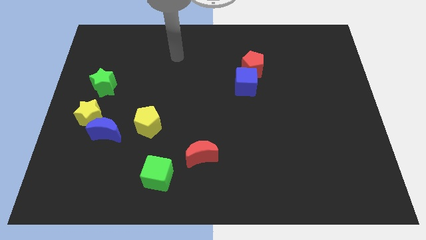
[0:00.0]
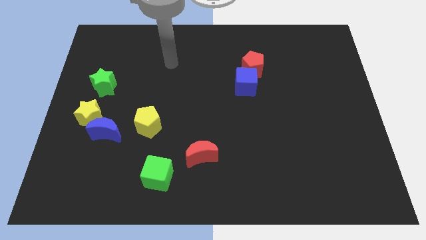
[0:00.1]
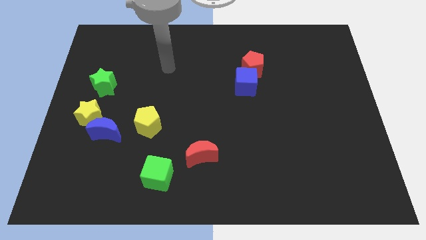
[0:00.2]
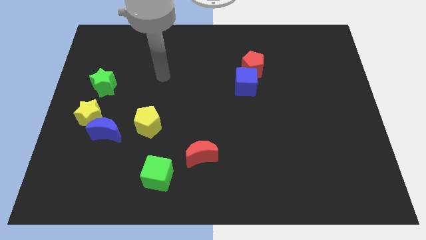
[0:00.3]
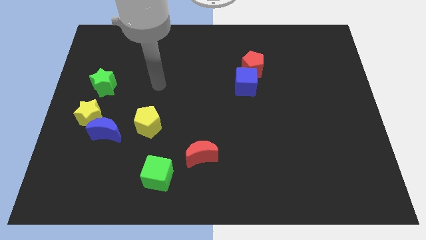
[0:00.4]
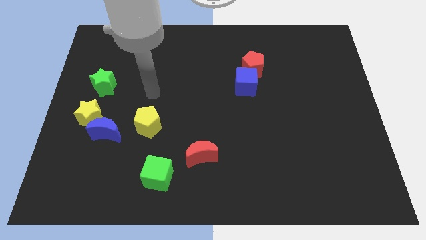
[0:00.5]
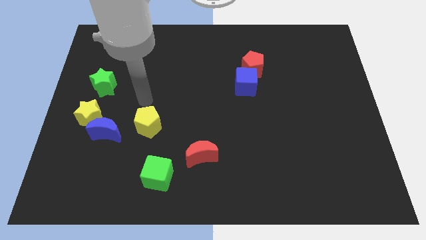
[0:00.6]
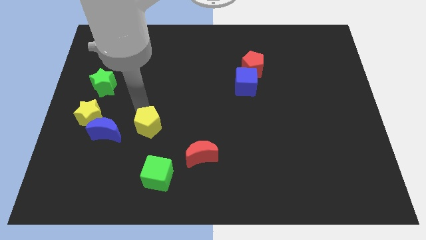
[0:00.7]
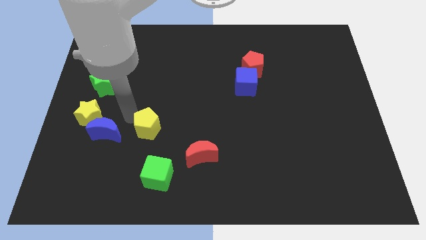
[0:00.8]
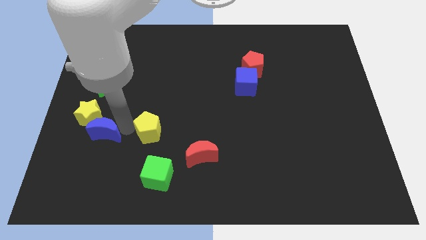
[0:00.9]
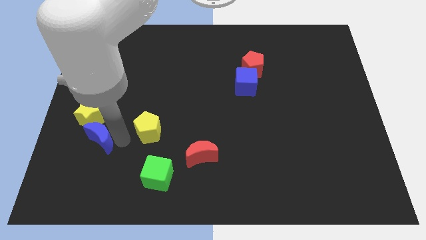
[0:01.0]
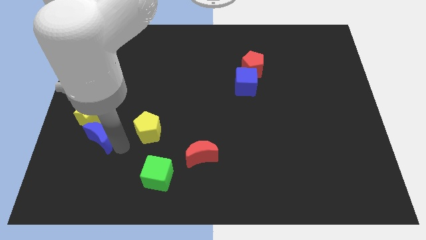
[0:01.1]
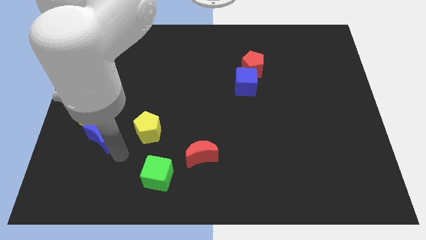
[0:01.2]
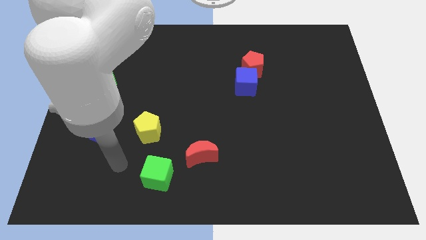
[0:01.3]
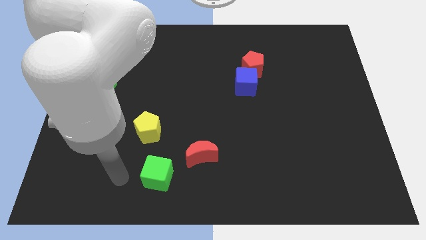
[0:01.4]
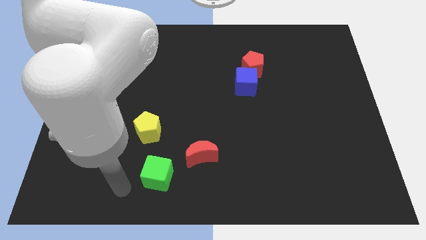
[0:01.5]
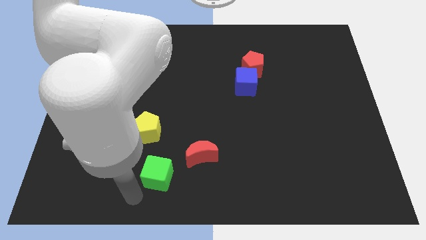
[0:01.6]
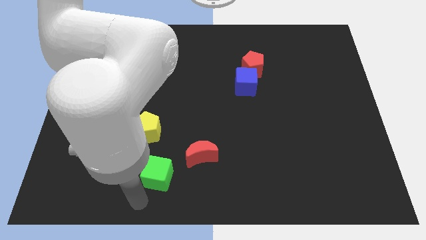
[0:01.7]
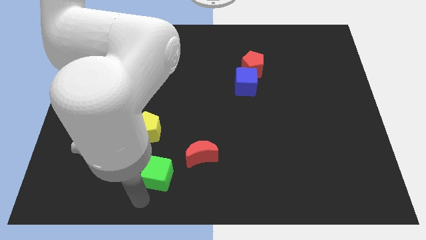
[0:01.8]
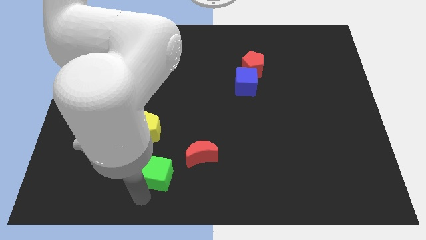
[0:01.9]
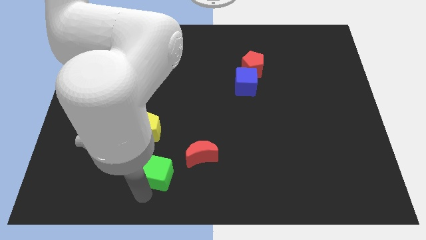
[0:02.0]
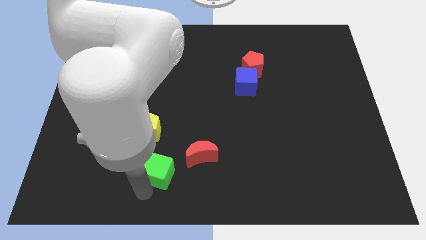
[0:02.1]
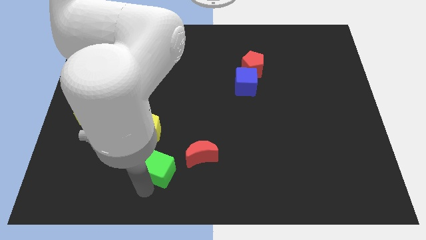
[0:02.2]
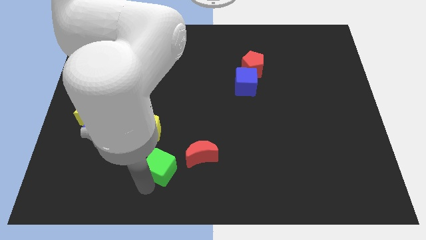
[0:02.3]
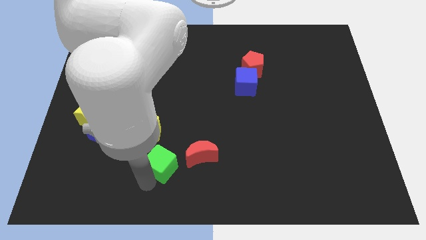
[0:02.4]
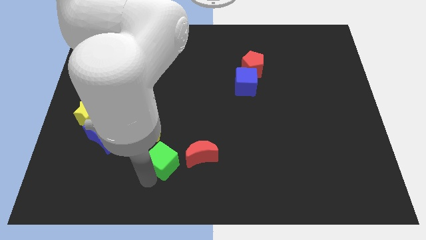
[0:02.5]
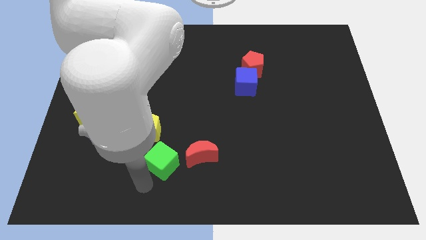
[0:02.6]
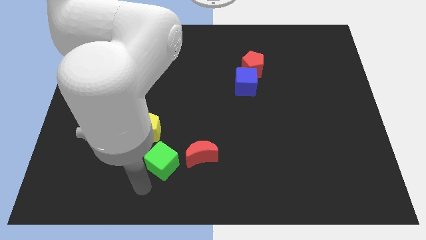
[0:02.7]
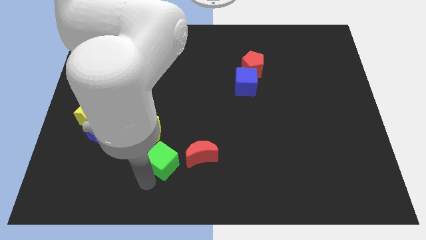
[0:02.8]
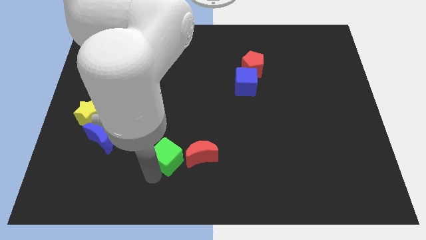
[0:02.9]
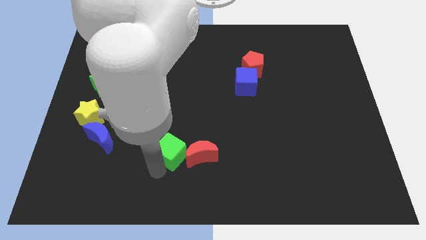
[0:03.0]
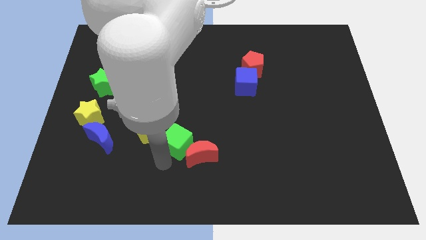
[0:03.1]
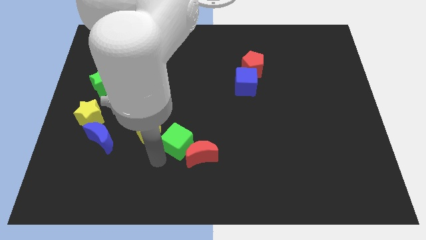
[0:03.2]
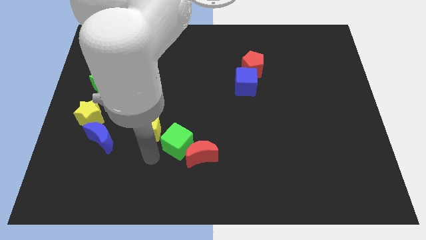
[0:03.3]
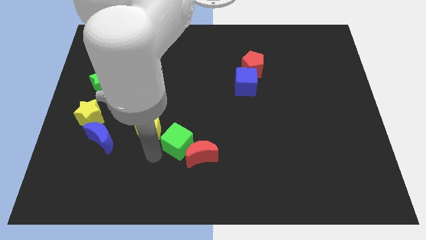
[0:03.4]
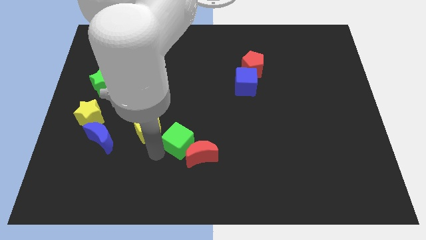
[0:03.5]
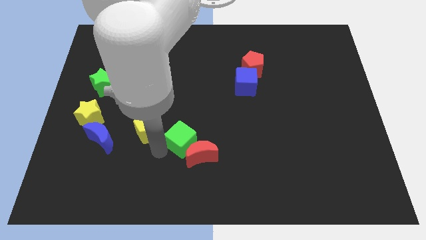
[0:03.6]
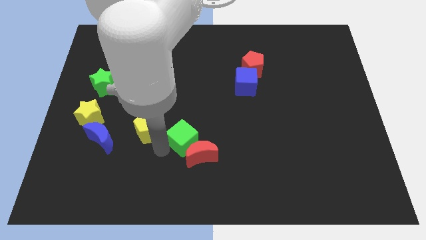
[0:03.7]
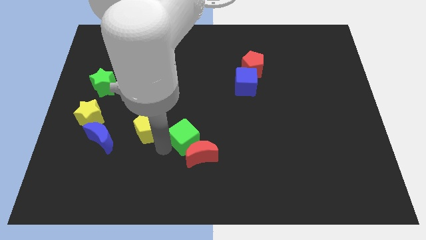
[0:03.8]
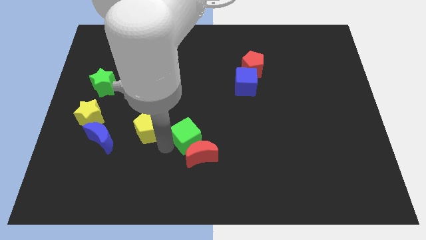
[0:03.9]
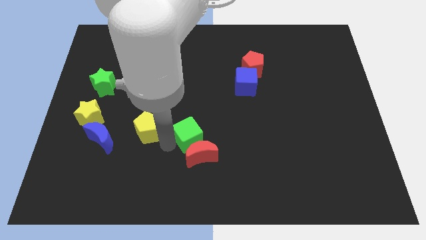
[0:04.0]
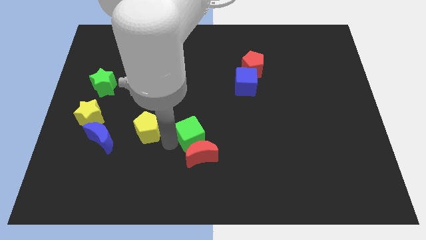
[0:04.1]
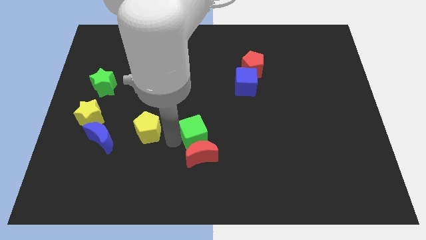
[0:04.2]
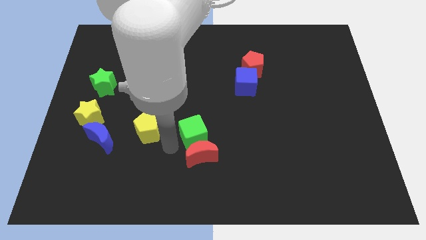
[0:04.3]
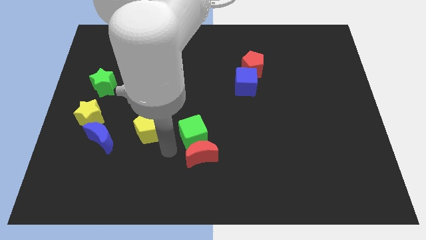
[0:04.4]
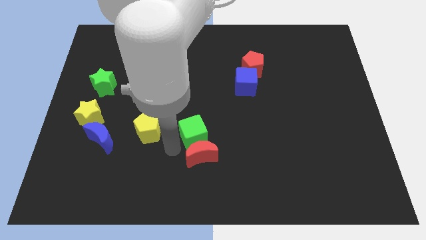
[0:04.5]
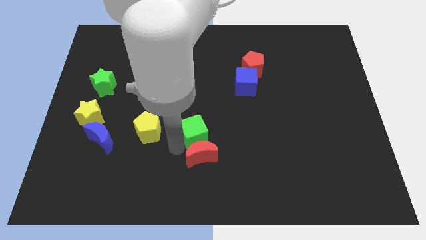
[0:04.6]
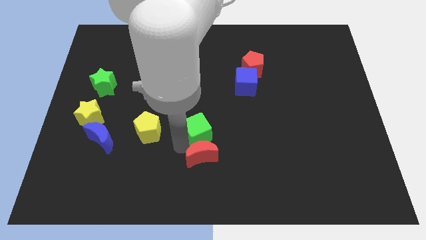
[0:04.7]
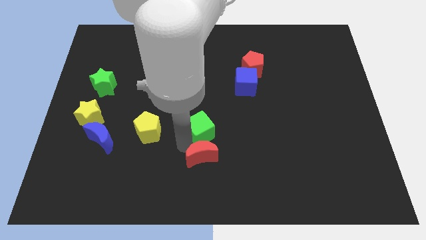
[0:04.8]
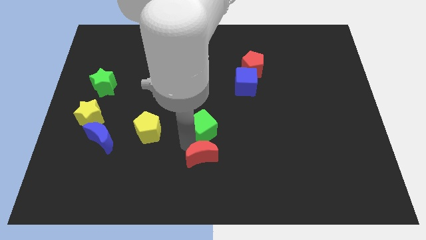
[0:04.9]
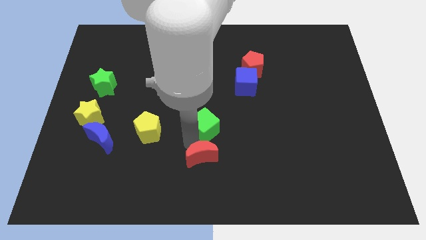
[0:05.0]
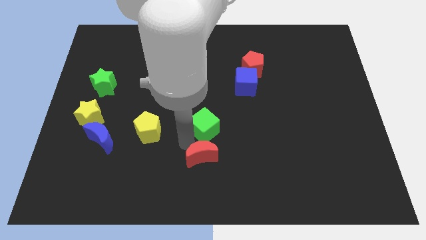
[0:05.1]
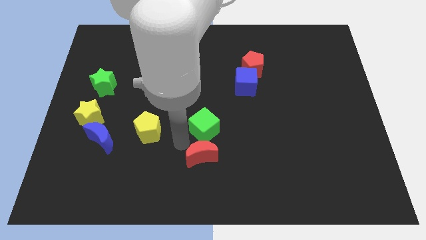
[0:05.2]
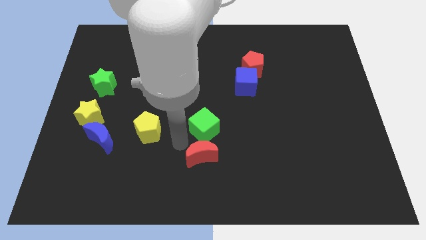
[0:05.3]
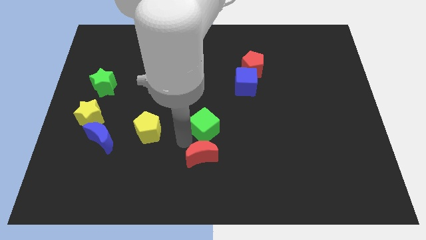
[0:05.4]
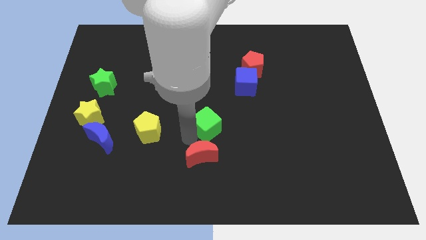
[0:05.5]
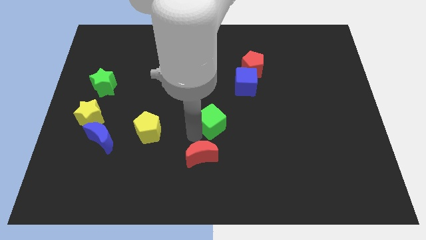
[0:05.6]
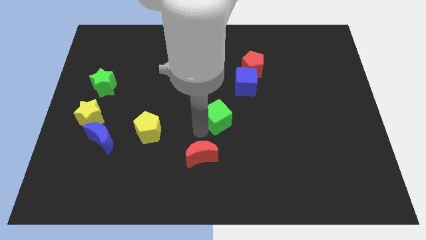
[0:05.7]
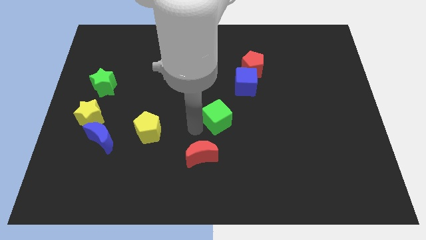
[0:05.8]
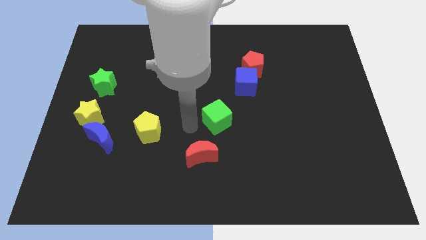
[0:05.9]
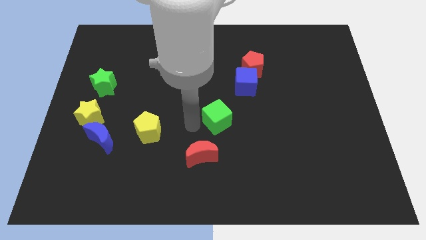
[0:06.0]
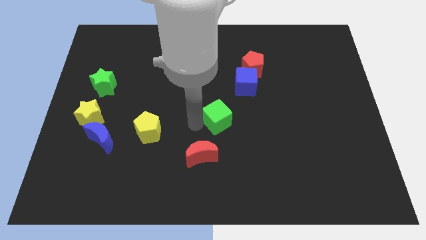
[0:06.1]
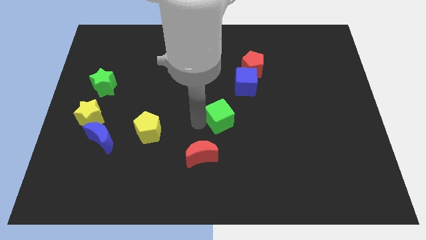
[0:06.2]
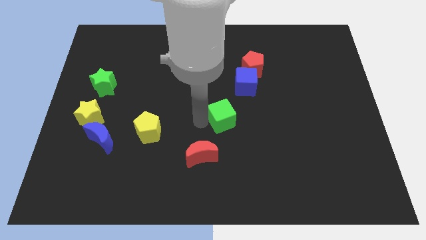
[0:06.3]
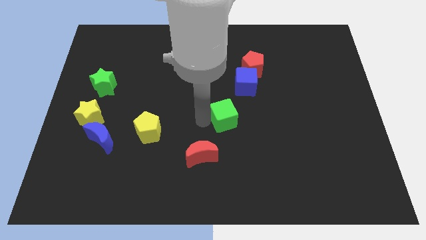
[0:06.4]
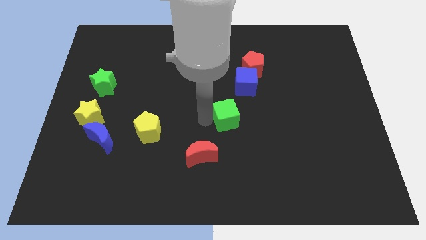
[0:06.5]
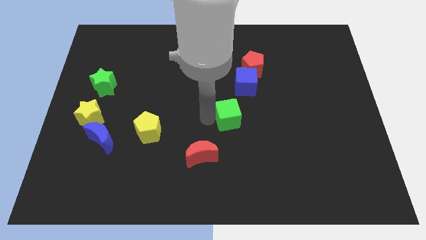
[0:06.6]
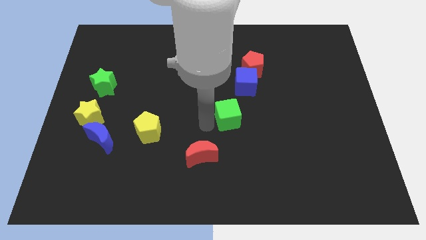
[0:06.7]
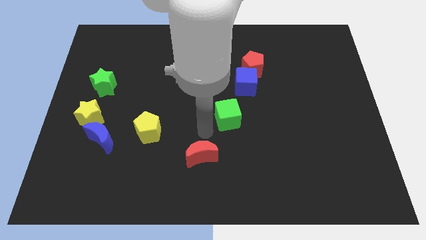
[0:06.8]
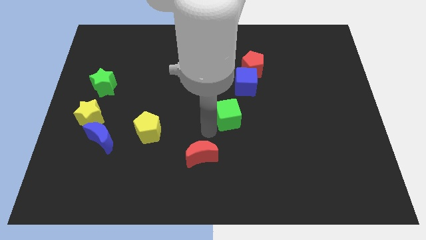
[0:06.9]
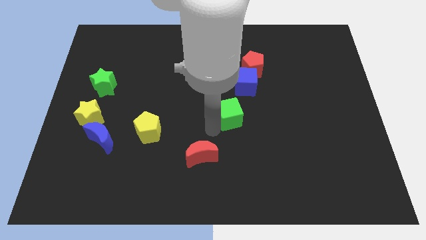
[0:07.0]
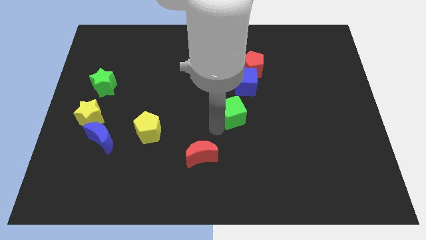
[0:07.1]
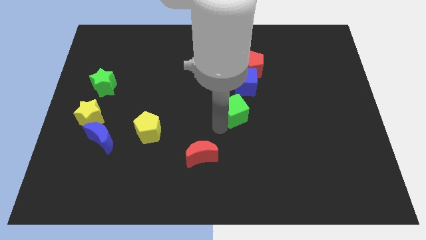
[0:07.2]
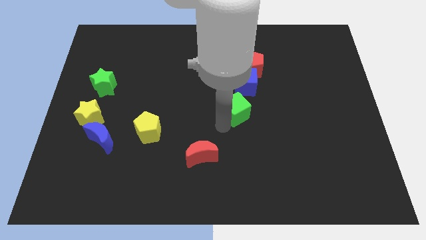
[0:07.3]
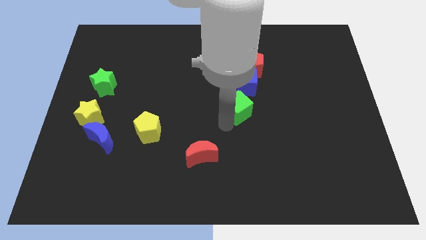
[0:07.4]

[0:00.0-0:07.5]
put the green cube to the bottom side of the red pentagon
